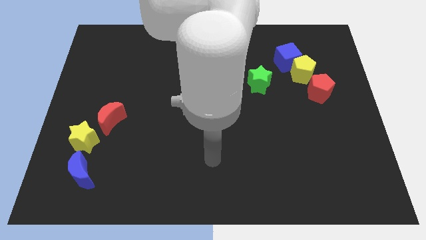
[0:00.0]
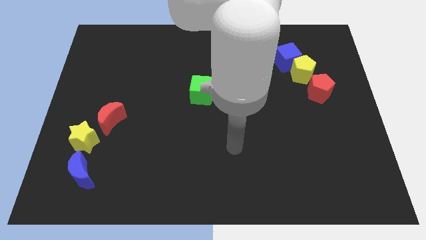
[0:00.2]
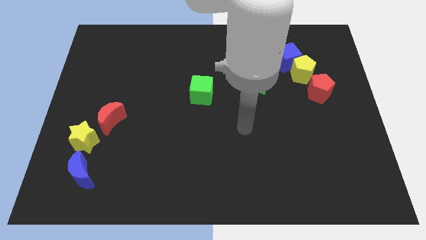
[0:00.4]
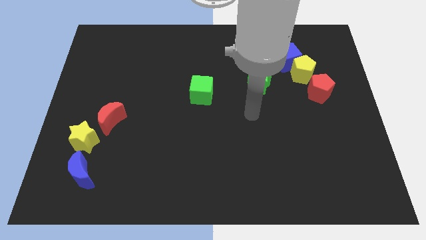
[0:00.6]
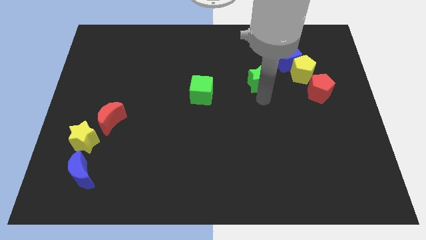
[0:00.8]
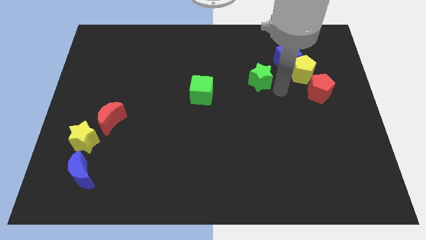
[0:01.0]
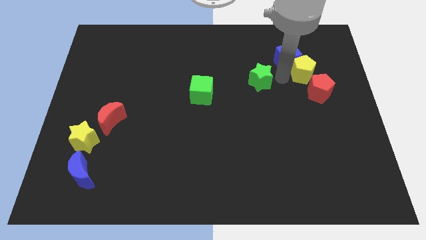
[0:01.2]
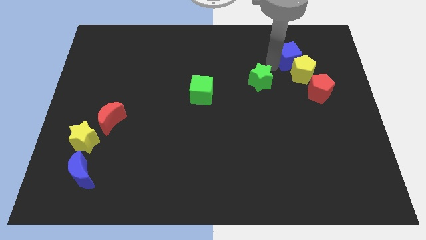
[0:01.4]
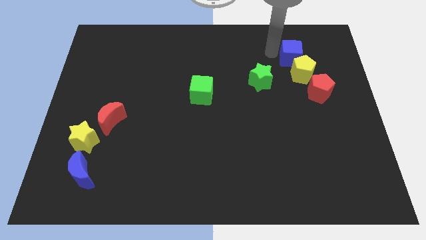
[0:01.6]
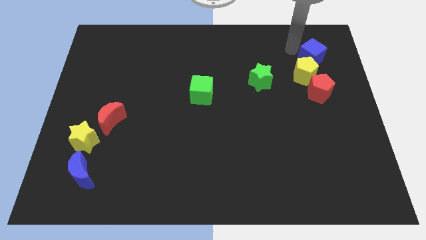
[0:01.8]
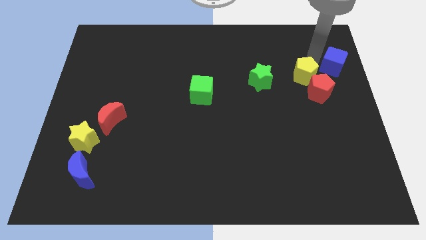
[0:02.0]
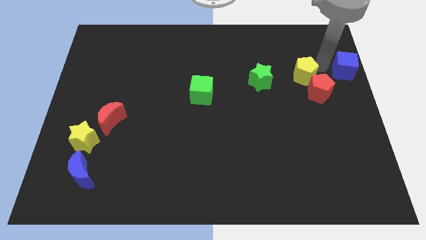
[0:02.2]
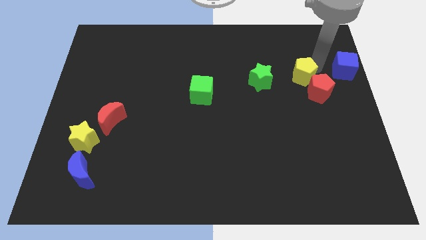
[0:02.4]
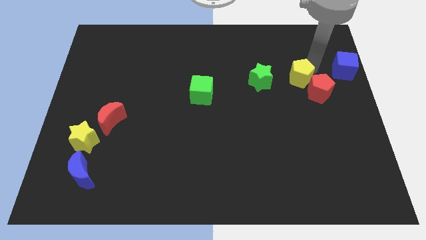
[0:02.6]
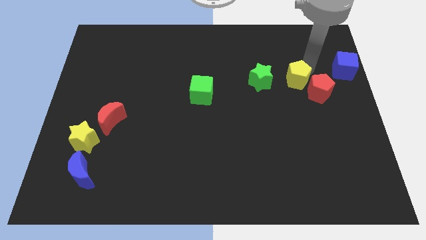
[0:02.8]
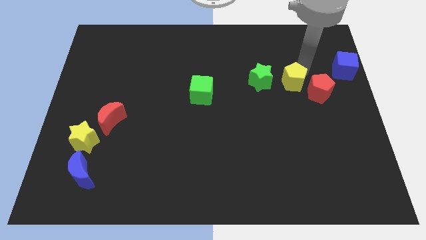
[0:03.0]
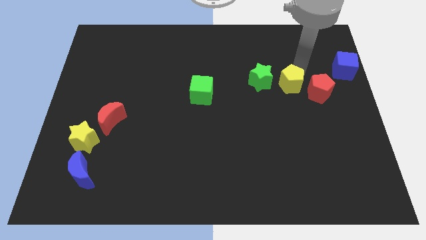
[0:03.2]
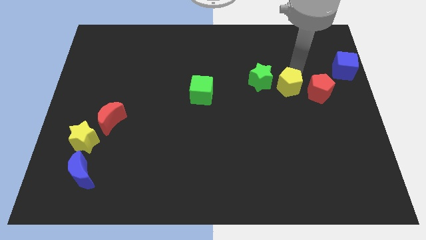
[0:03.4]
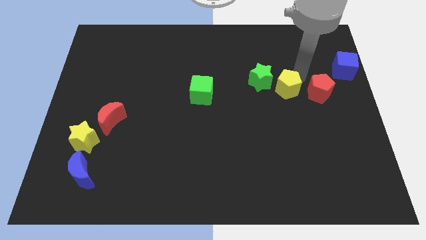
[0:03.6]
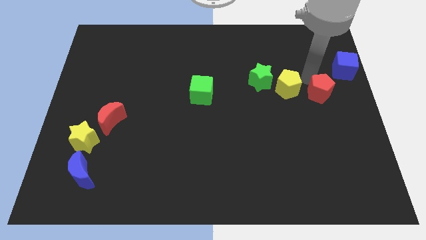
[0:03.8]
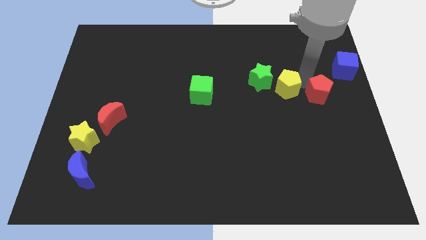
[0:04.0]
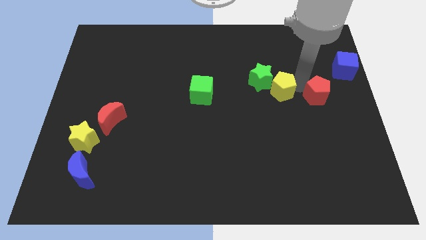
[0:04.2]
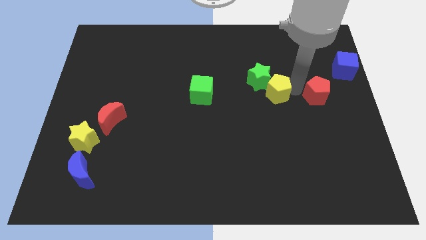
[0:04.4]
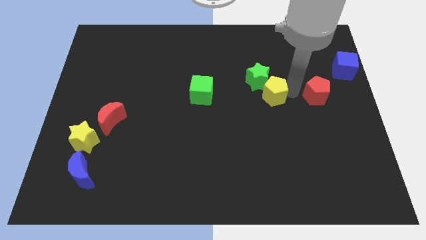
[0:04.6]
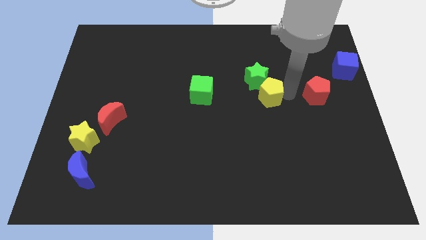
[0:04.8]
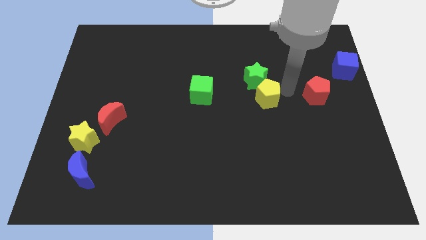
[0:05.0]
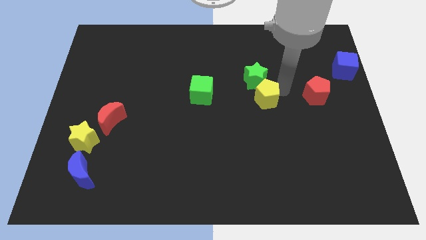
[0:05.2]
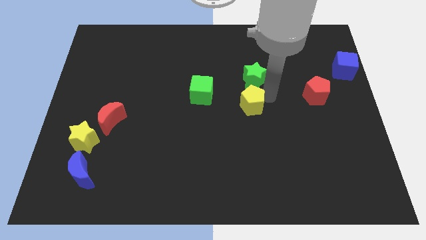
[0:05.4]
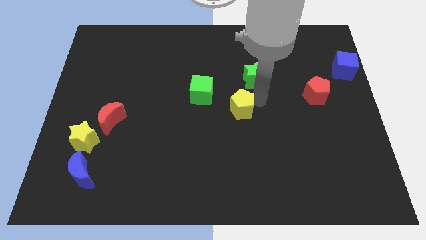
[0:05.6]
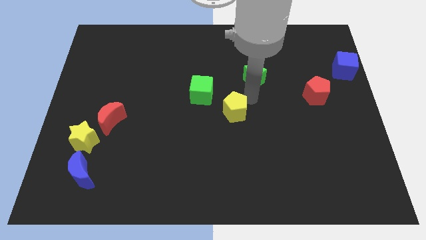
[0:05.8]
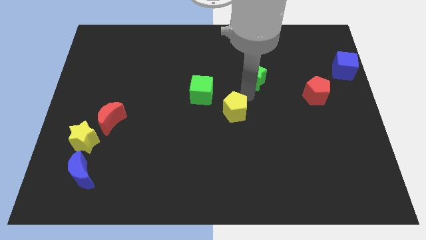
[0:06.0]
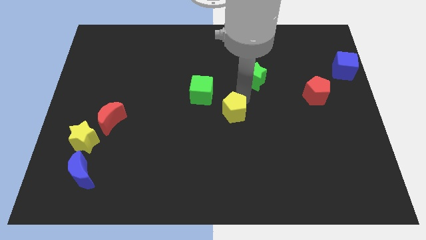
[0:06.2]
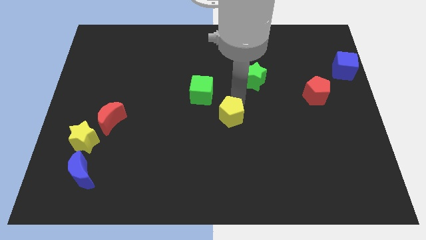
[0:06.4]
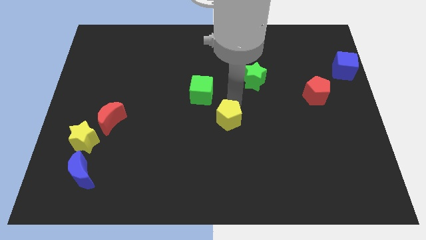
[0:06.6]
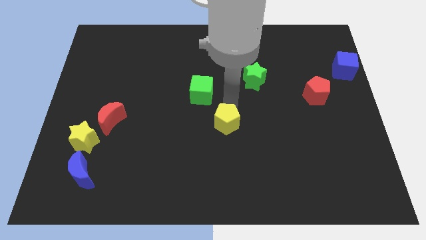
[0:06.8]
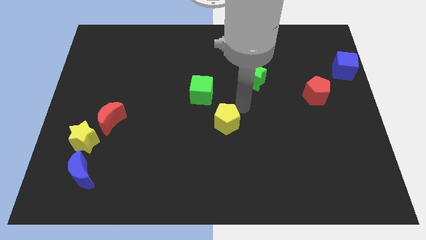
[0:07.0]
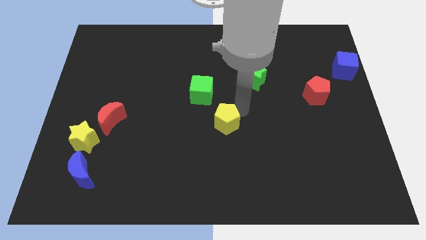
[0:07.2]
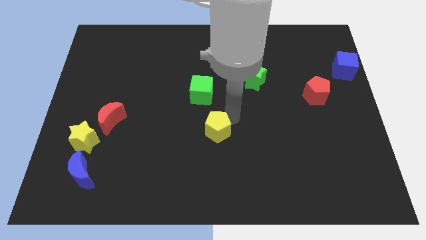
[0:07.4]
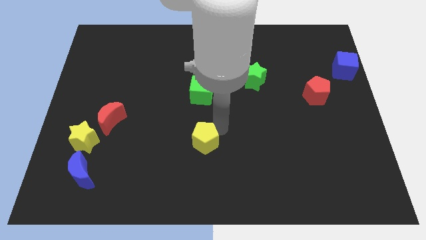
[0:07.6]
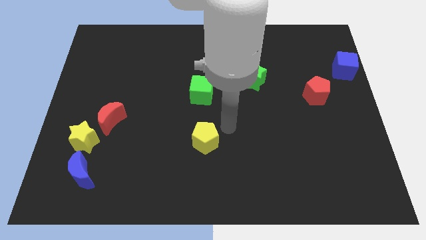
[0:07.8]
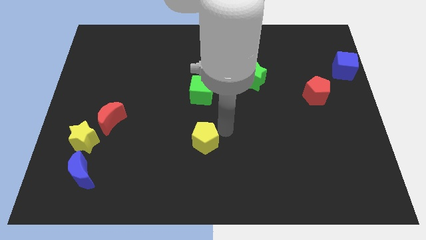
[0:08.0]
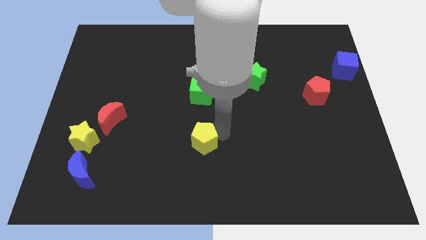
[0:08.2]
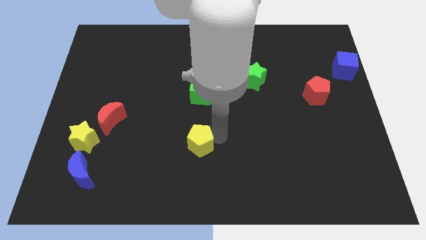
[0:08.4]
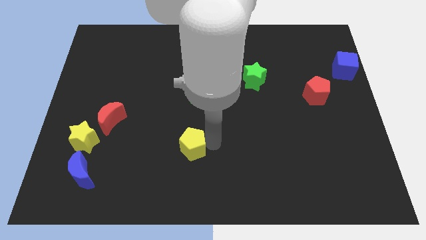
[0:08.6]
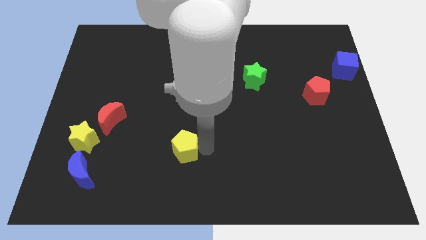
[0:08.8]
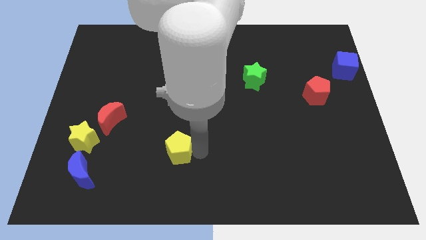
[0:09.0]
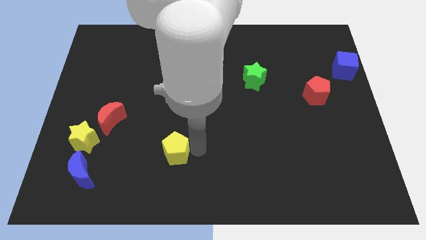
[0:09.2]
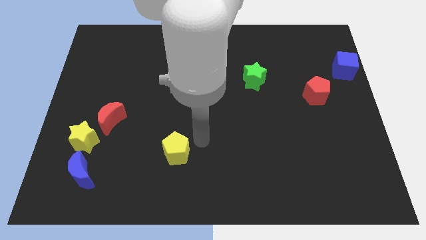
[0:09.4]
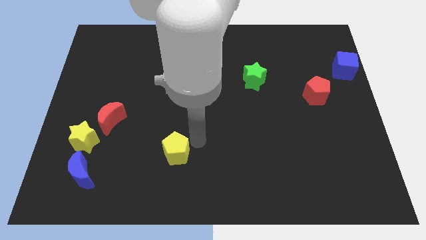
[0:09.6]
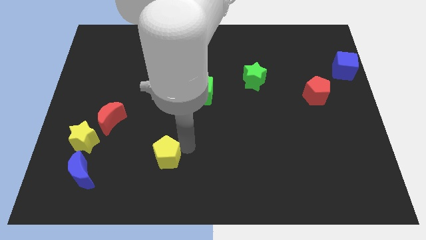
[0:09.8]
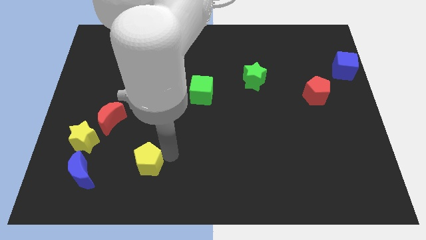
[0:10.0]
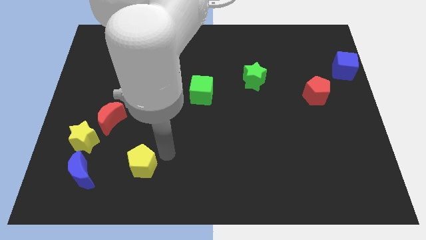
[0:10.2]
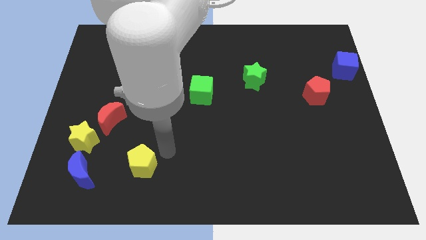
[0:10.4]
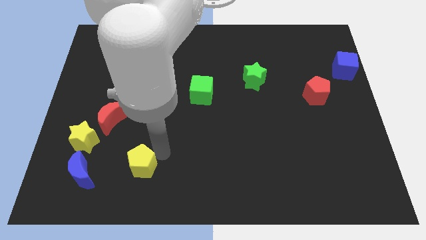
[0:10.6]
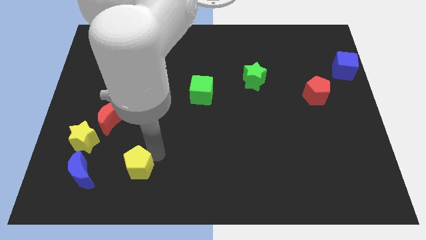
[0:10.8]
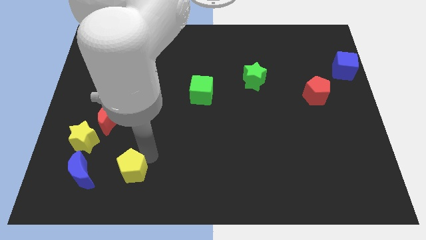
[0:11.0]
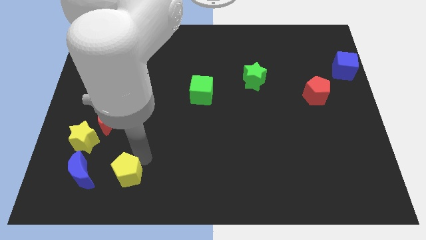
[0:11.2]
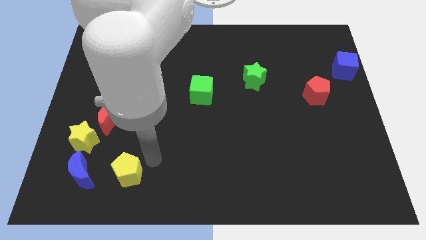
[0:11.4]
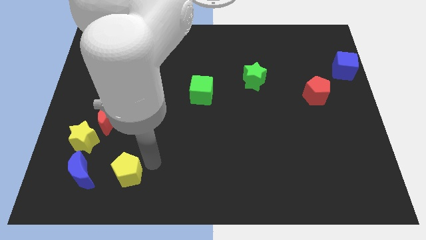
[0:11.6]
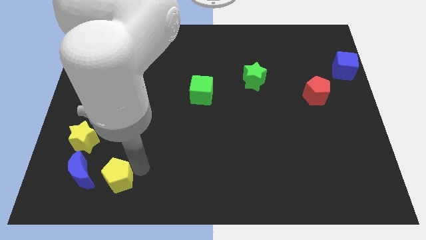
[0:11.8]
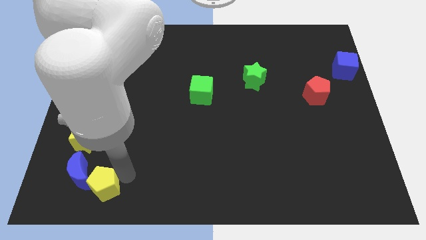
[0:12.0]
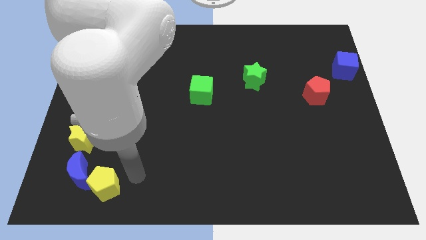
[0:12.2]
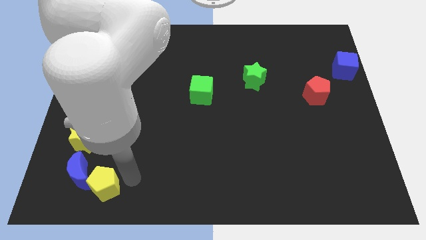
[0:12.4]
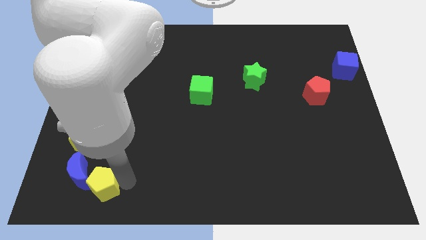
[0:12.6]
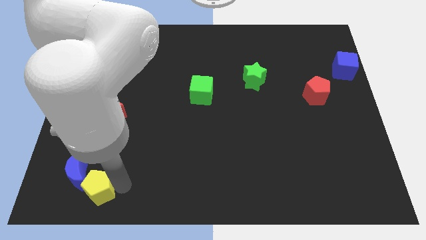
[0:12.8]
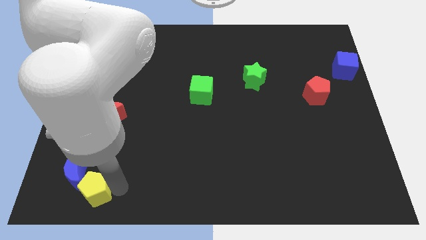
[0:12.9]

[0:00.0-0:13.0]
put the yellow pentagon to the bottom side of the yellow star
